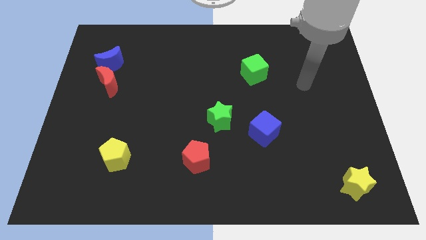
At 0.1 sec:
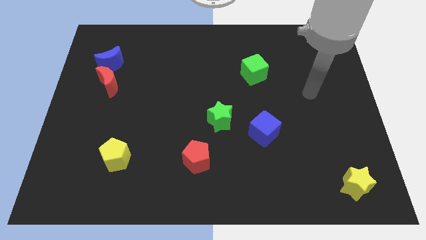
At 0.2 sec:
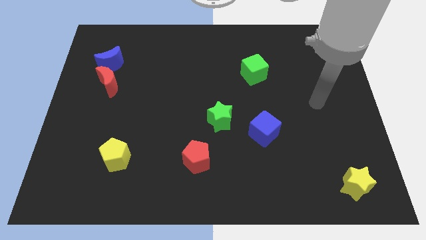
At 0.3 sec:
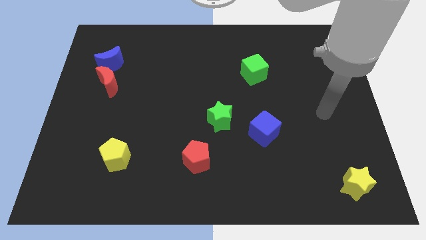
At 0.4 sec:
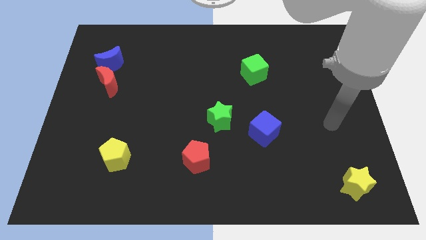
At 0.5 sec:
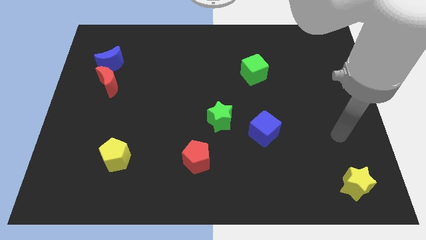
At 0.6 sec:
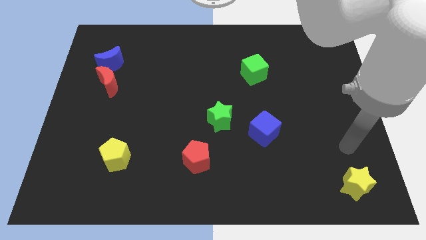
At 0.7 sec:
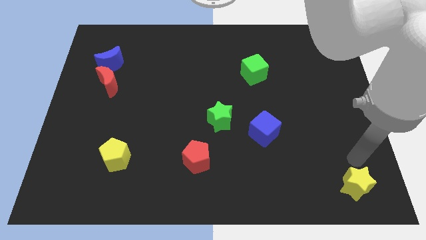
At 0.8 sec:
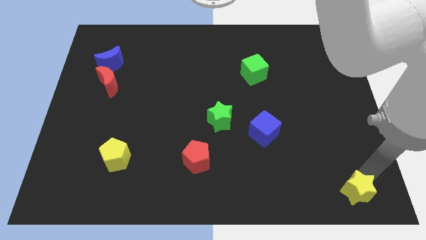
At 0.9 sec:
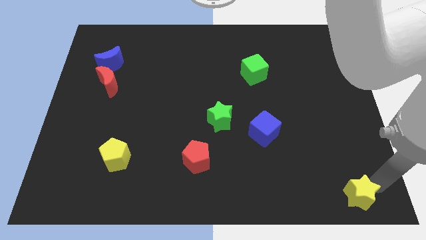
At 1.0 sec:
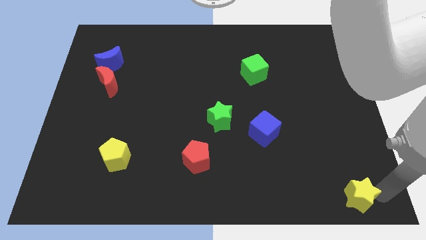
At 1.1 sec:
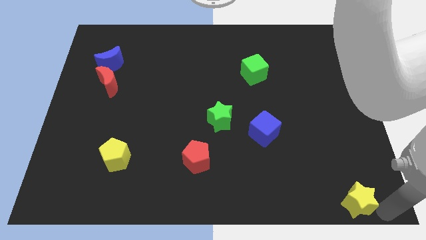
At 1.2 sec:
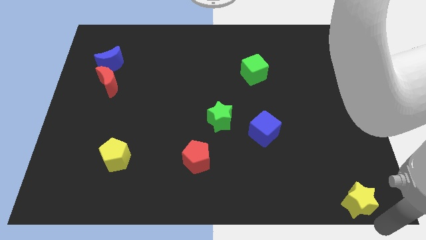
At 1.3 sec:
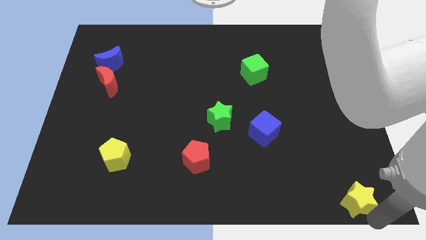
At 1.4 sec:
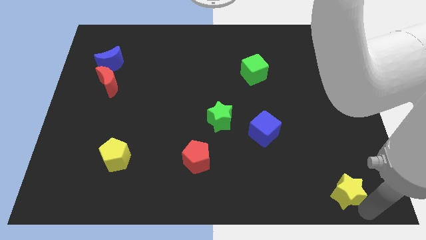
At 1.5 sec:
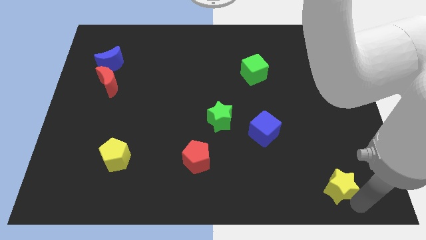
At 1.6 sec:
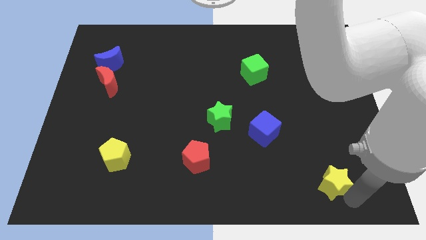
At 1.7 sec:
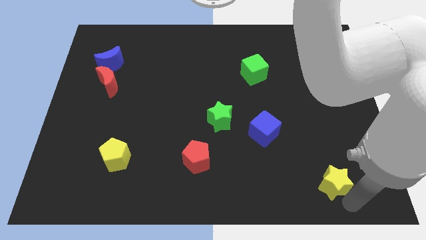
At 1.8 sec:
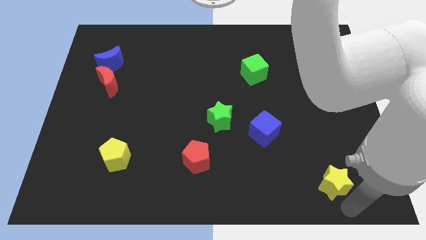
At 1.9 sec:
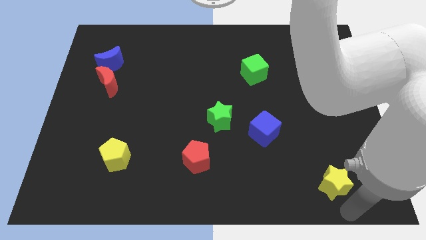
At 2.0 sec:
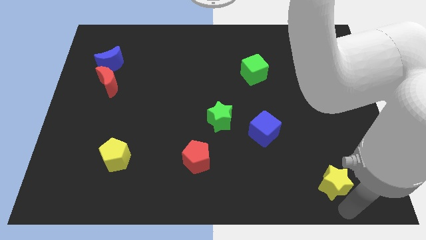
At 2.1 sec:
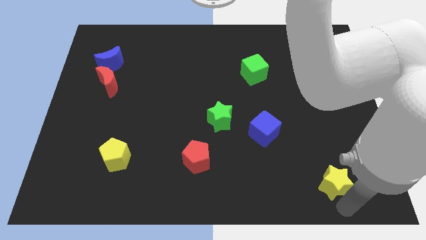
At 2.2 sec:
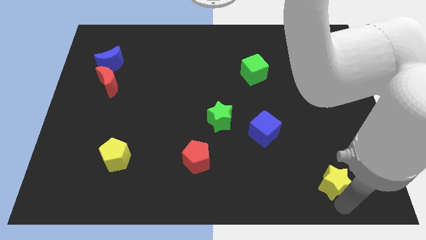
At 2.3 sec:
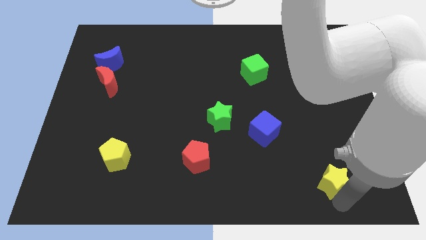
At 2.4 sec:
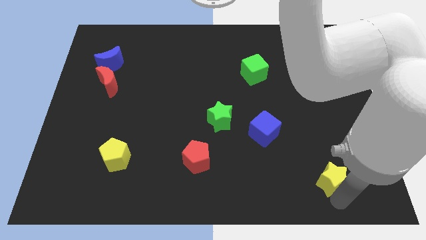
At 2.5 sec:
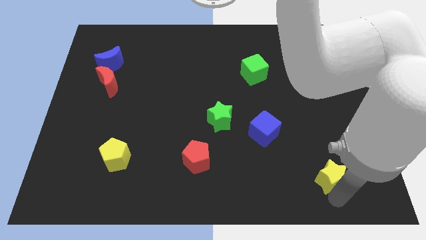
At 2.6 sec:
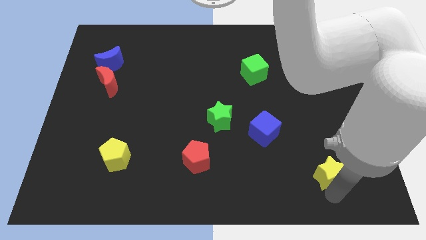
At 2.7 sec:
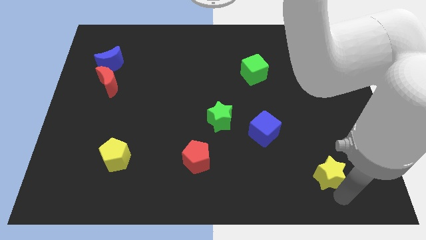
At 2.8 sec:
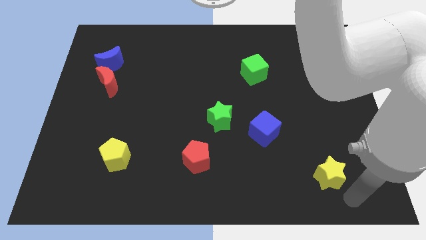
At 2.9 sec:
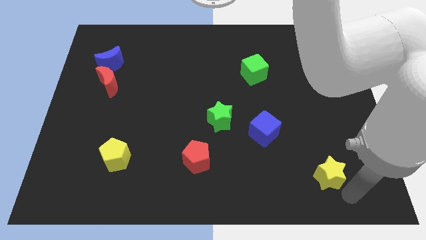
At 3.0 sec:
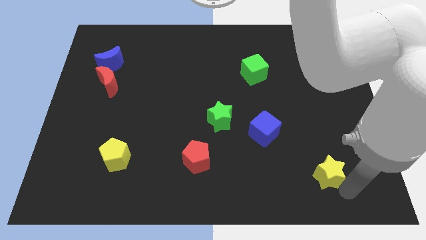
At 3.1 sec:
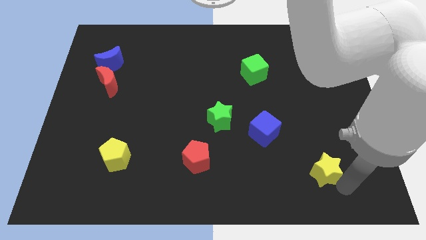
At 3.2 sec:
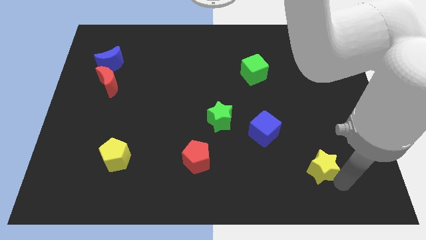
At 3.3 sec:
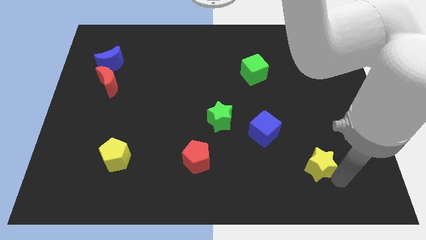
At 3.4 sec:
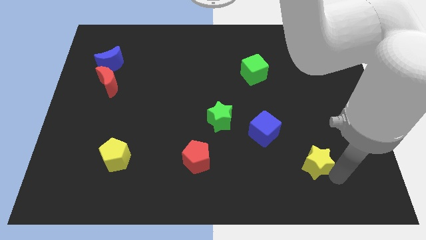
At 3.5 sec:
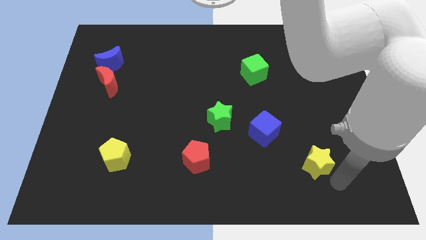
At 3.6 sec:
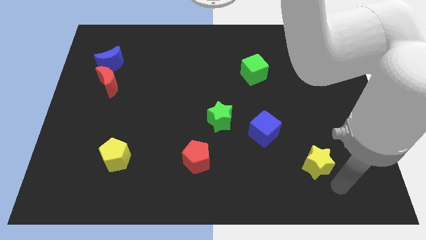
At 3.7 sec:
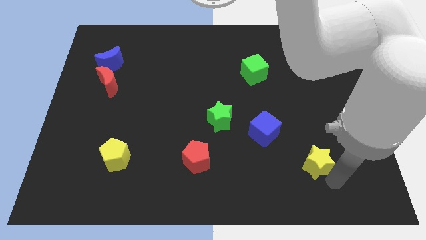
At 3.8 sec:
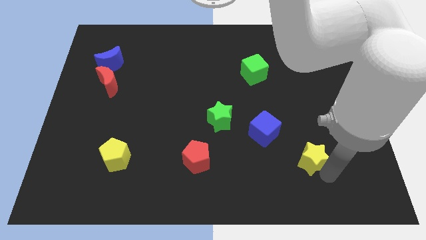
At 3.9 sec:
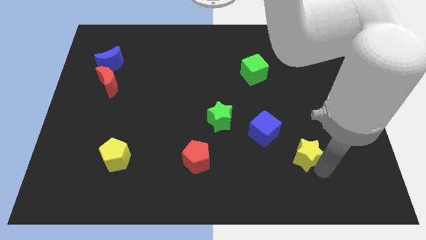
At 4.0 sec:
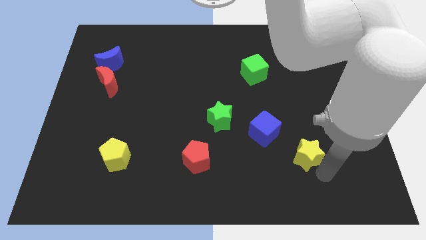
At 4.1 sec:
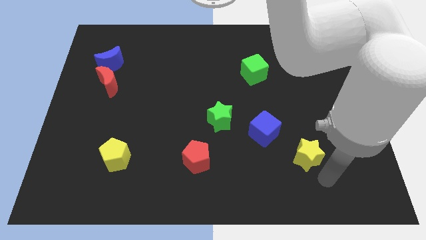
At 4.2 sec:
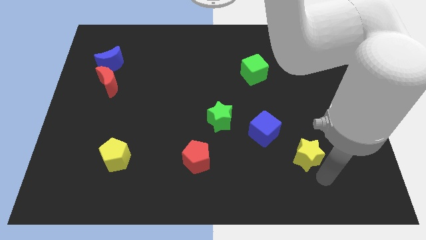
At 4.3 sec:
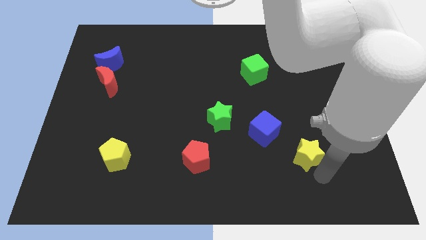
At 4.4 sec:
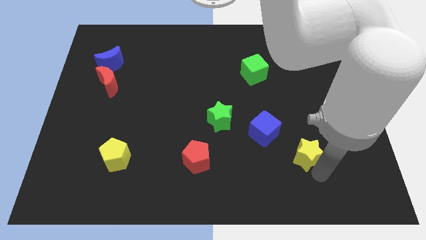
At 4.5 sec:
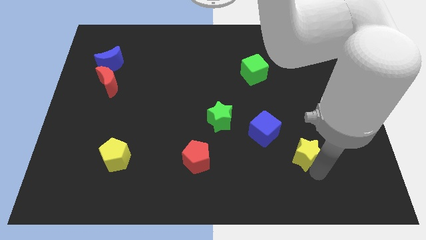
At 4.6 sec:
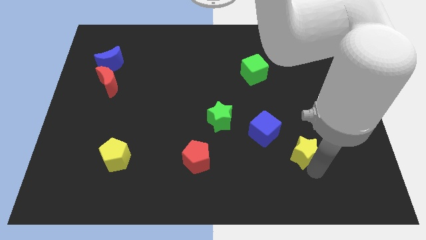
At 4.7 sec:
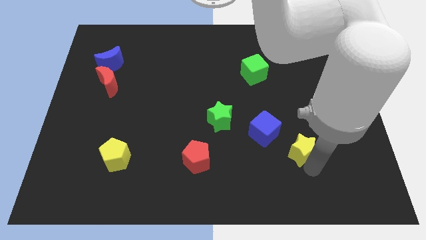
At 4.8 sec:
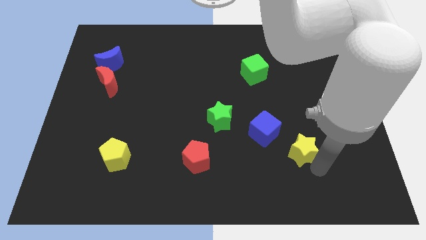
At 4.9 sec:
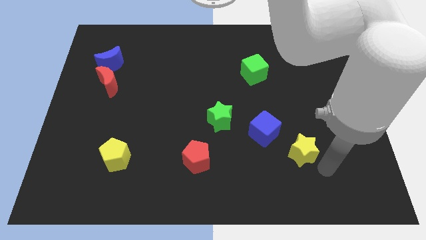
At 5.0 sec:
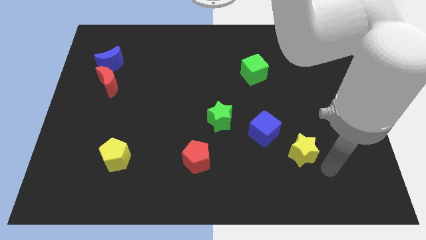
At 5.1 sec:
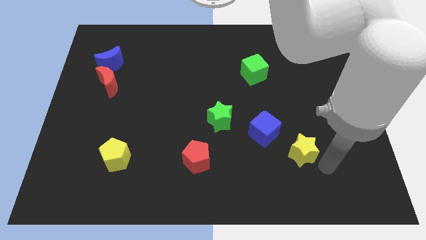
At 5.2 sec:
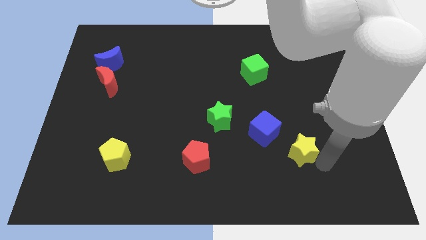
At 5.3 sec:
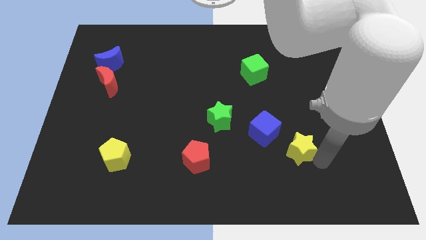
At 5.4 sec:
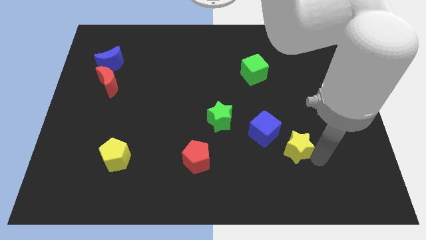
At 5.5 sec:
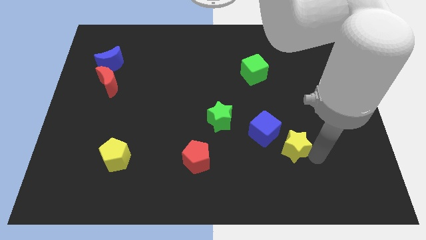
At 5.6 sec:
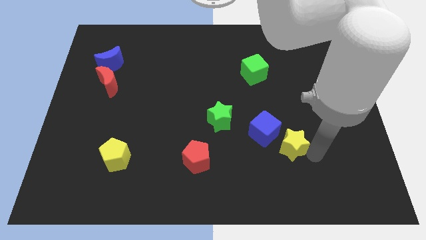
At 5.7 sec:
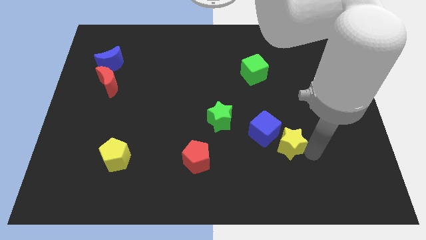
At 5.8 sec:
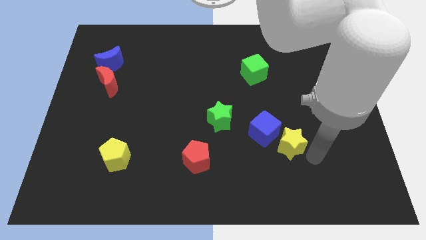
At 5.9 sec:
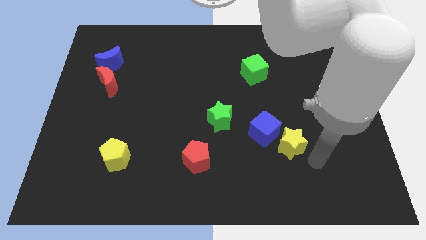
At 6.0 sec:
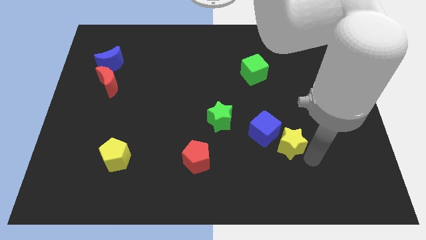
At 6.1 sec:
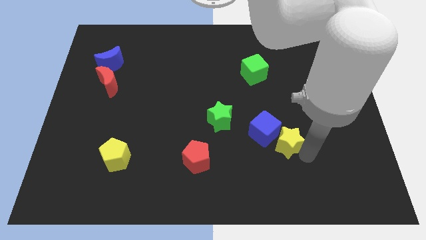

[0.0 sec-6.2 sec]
slide the yellow star to the blue cube

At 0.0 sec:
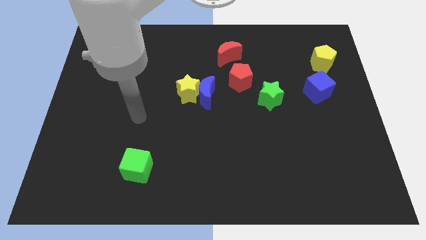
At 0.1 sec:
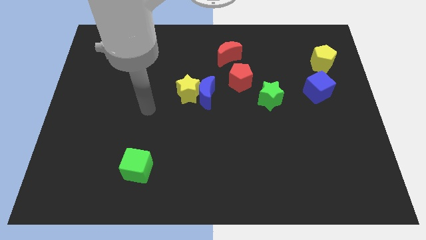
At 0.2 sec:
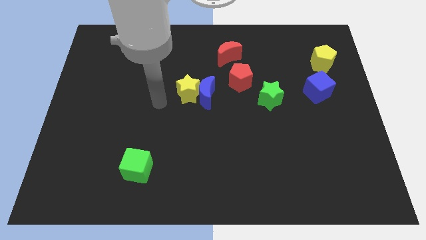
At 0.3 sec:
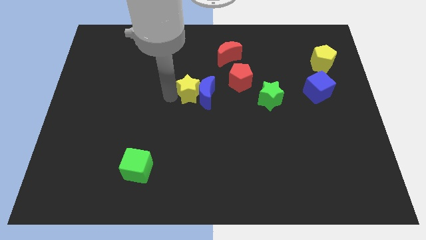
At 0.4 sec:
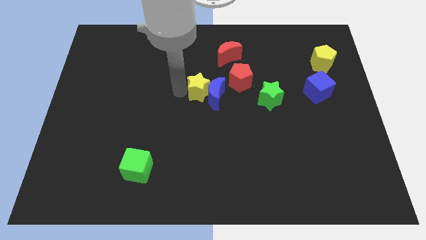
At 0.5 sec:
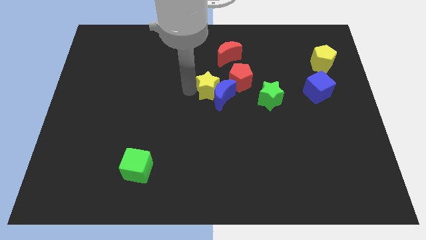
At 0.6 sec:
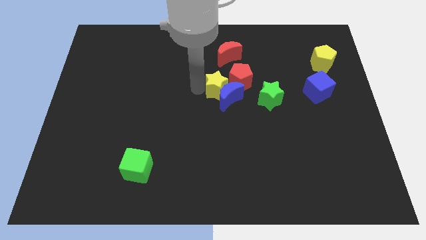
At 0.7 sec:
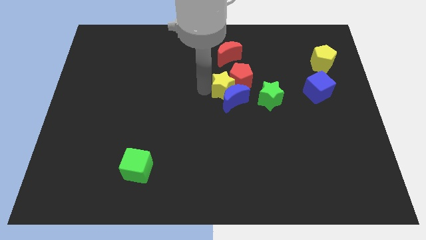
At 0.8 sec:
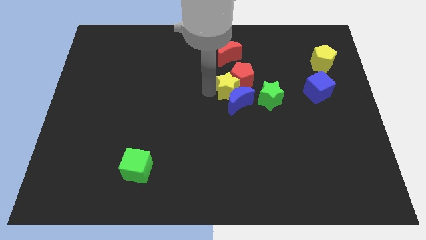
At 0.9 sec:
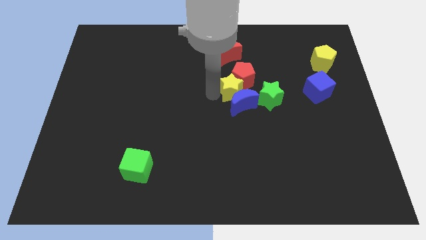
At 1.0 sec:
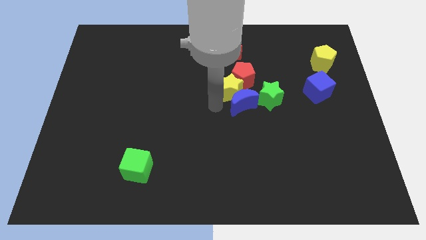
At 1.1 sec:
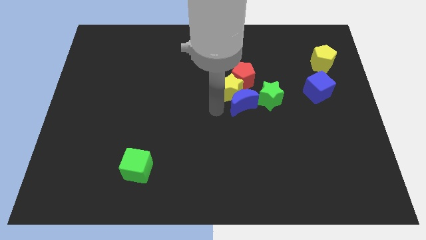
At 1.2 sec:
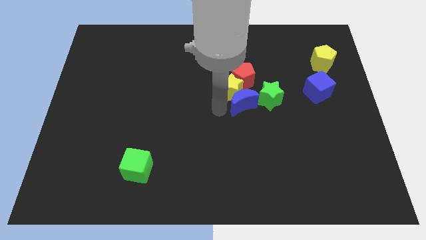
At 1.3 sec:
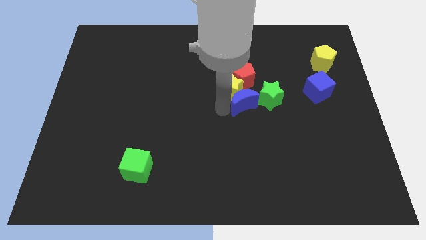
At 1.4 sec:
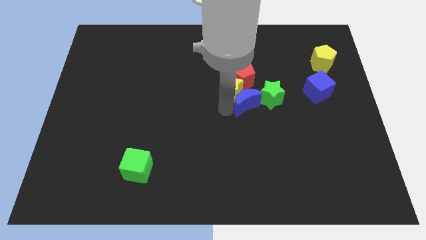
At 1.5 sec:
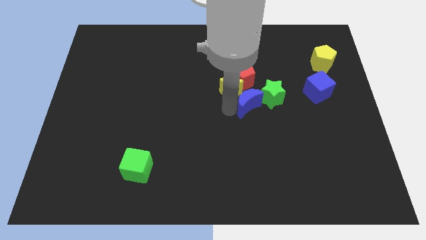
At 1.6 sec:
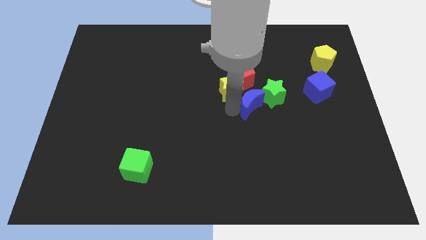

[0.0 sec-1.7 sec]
push the blue moon to the green star

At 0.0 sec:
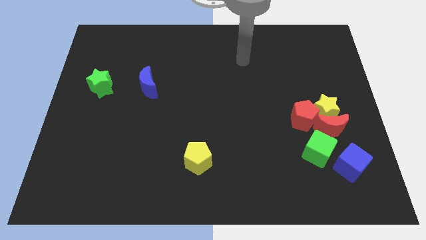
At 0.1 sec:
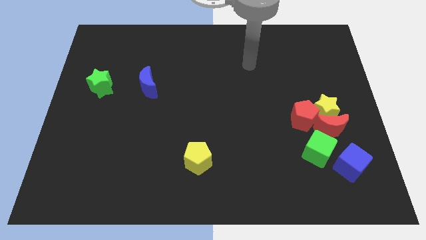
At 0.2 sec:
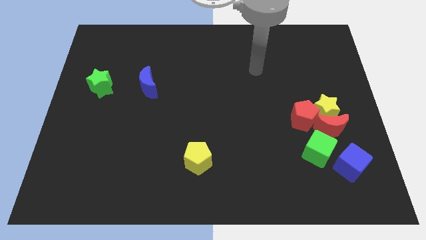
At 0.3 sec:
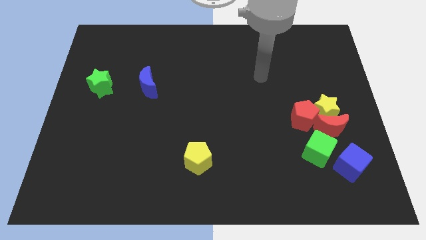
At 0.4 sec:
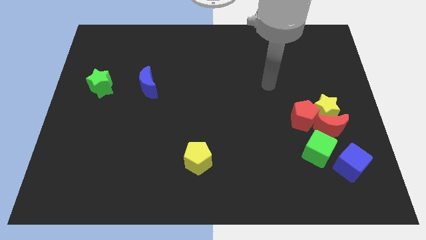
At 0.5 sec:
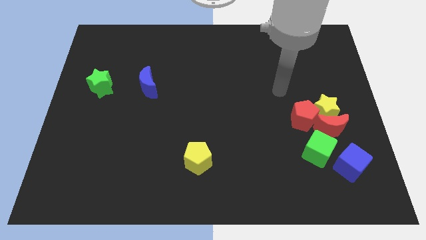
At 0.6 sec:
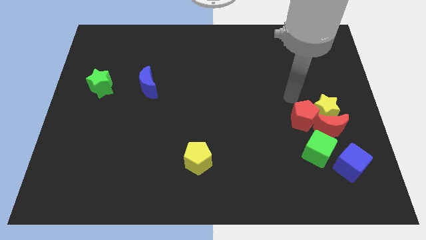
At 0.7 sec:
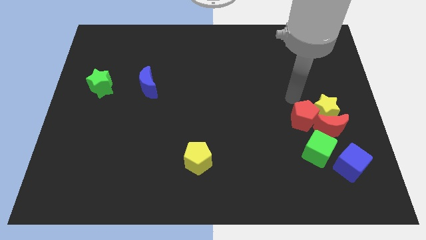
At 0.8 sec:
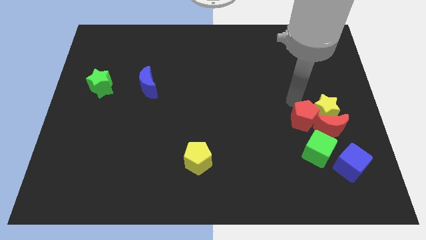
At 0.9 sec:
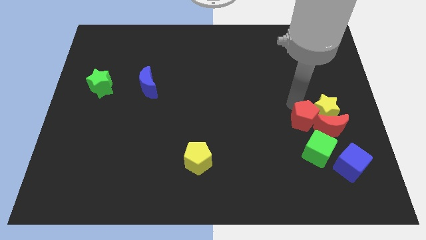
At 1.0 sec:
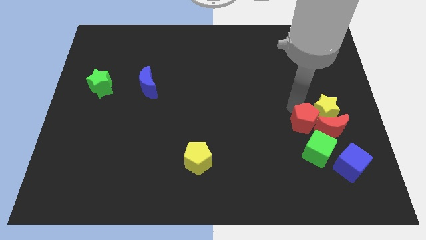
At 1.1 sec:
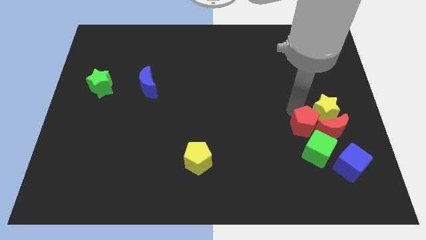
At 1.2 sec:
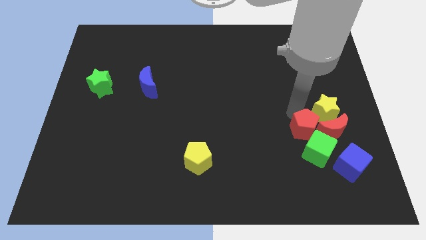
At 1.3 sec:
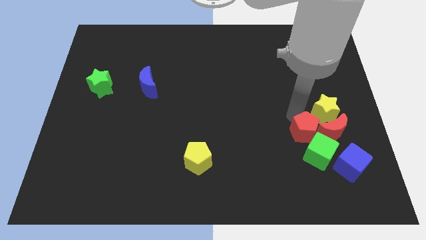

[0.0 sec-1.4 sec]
slide the red pentagon towards the green cube
